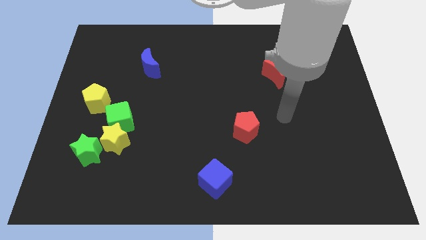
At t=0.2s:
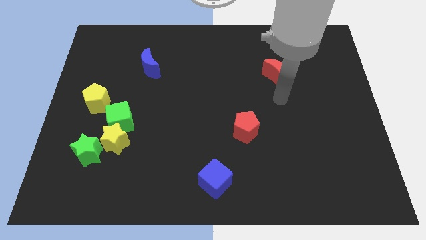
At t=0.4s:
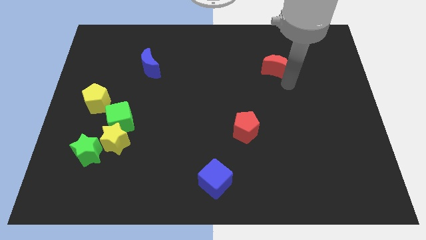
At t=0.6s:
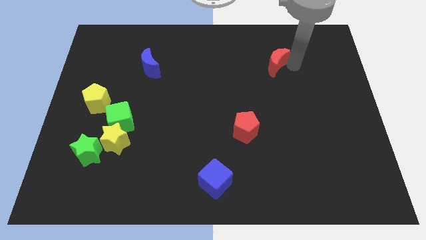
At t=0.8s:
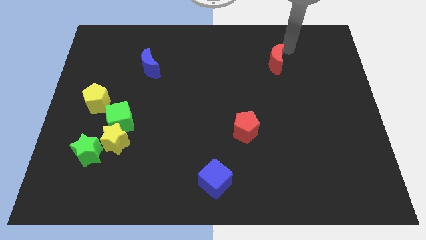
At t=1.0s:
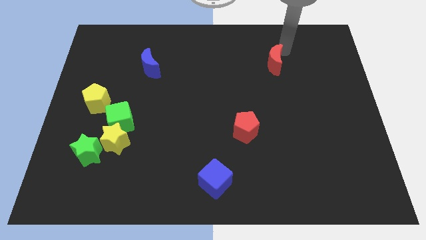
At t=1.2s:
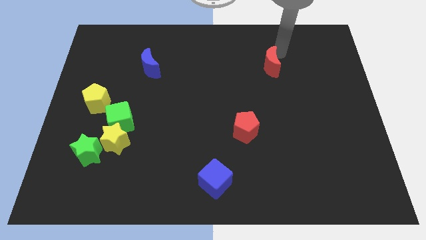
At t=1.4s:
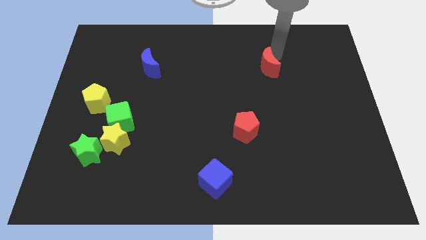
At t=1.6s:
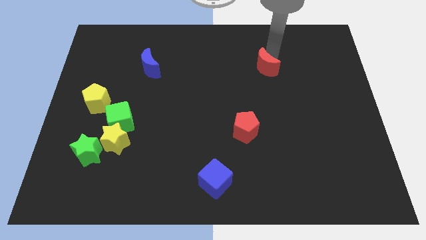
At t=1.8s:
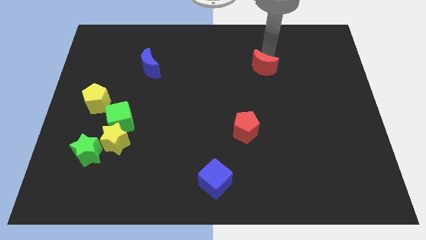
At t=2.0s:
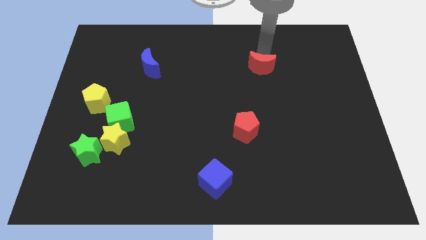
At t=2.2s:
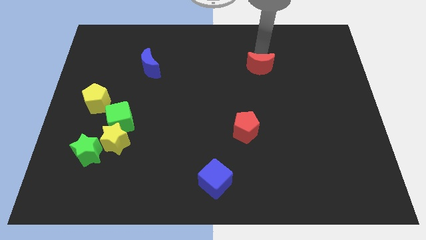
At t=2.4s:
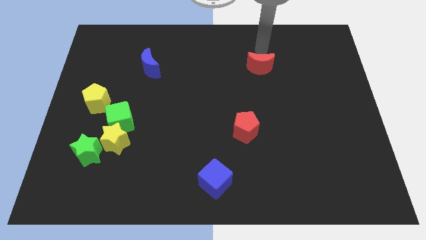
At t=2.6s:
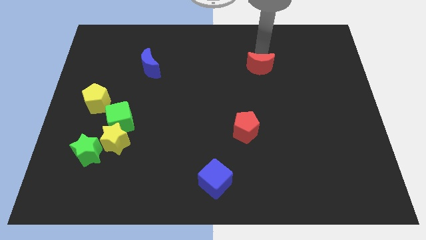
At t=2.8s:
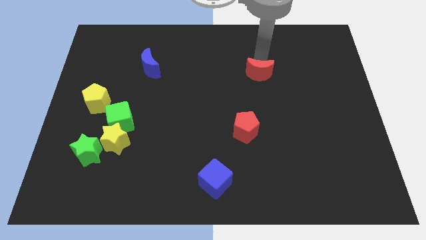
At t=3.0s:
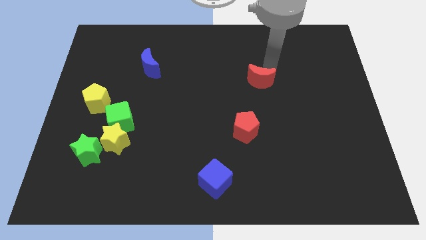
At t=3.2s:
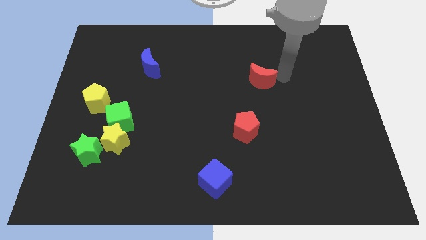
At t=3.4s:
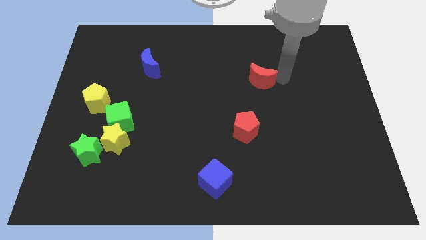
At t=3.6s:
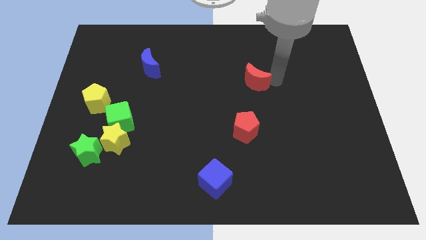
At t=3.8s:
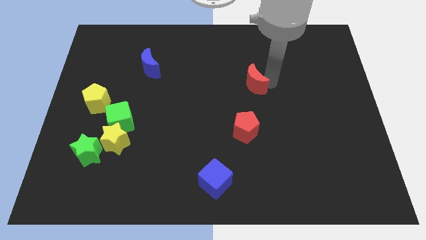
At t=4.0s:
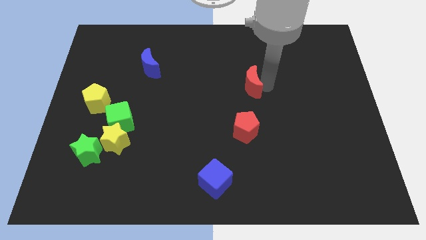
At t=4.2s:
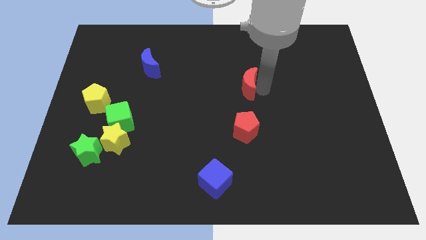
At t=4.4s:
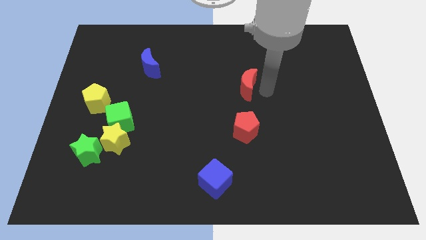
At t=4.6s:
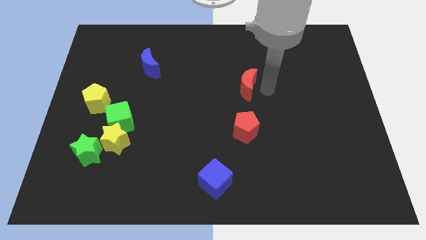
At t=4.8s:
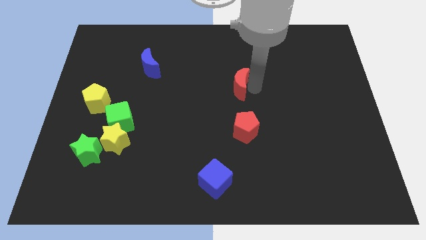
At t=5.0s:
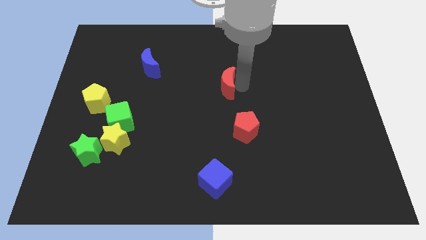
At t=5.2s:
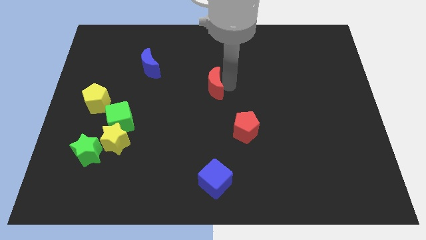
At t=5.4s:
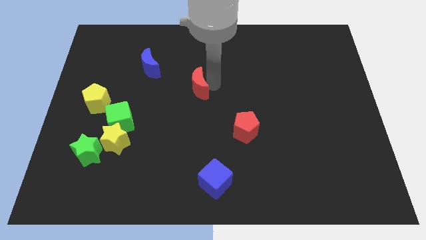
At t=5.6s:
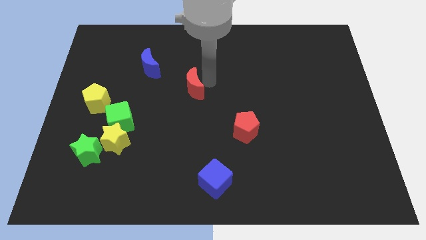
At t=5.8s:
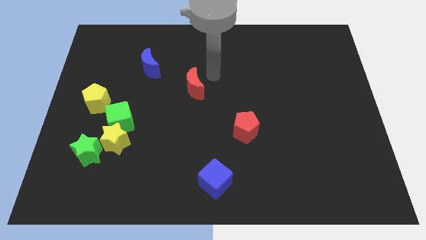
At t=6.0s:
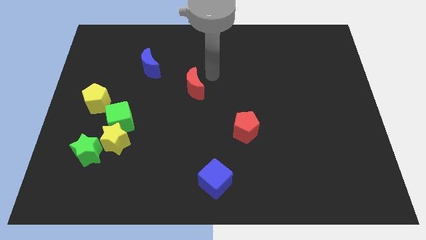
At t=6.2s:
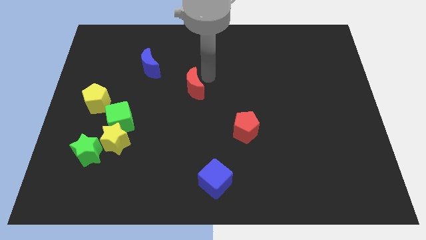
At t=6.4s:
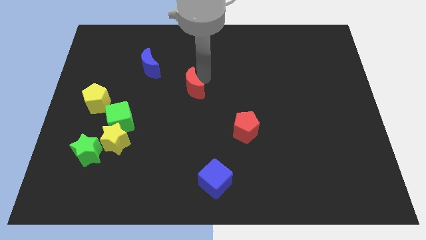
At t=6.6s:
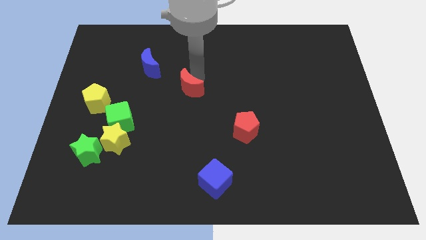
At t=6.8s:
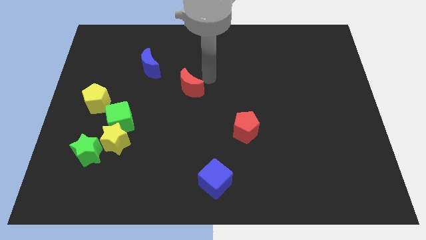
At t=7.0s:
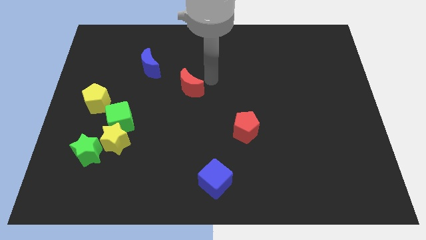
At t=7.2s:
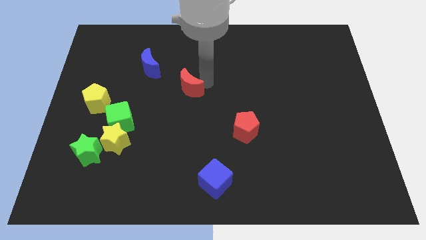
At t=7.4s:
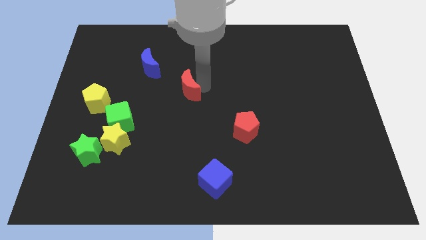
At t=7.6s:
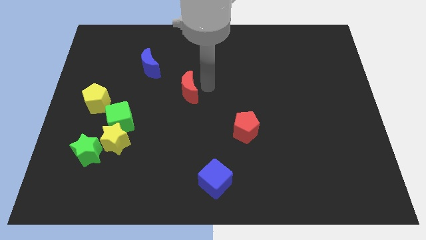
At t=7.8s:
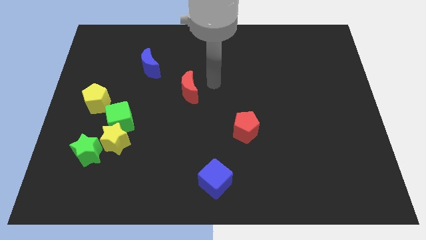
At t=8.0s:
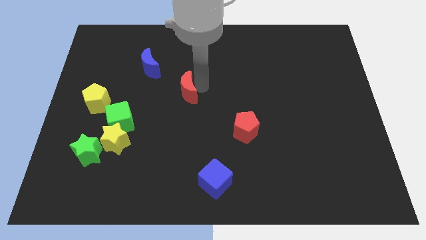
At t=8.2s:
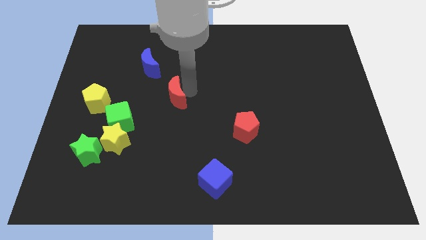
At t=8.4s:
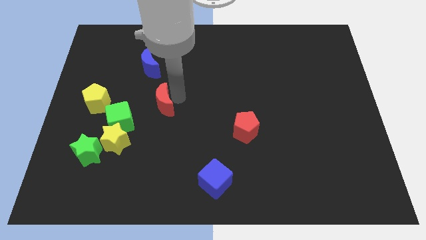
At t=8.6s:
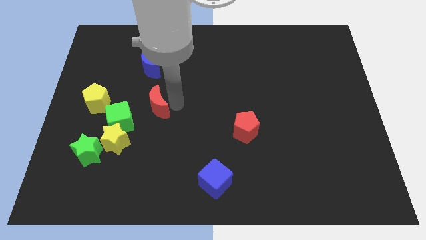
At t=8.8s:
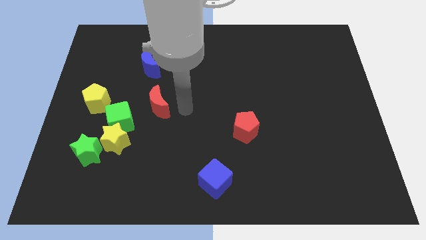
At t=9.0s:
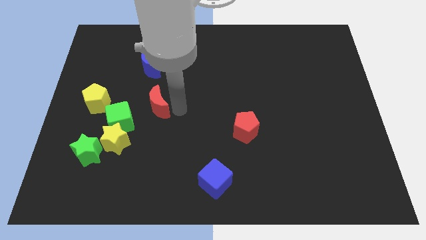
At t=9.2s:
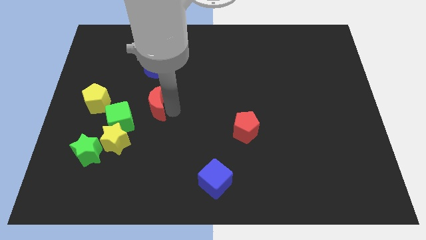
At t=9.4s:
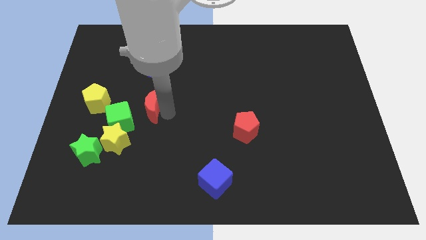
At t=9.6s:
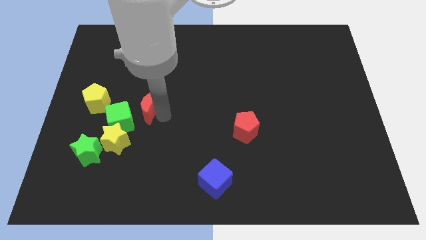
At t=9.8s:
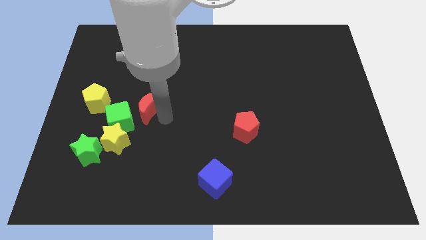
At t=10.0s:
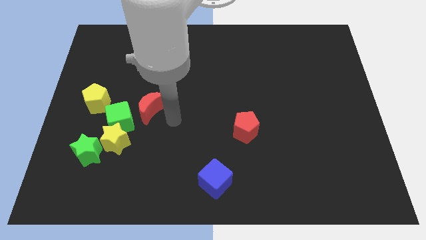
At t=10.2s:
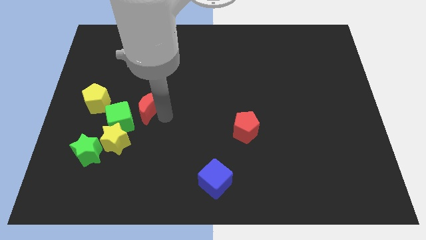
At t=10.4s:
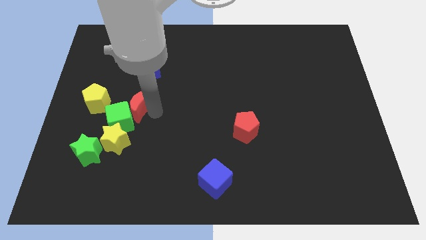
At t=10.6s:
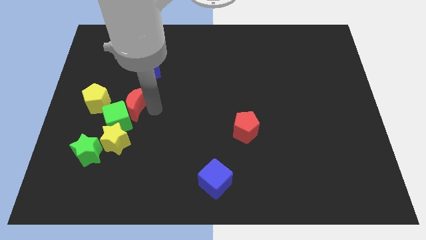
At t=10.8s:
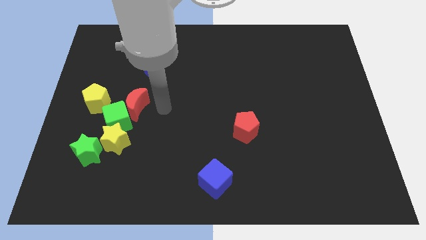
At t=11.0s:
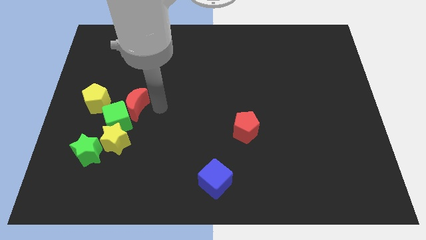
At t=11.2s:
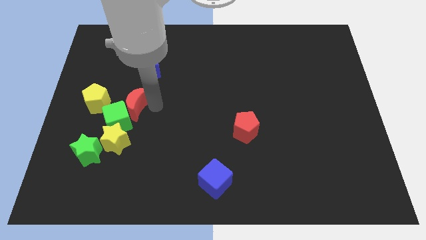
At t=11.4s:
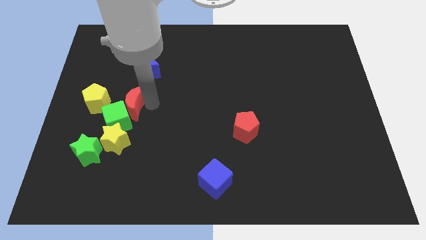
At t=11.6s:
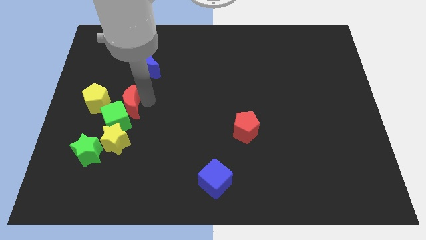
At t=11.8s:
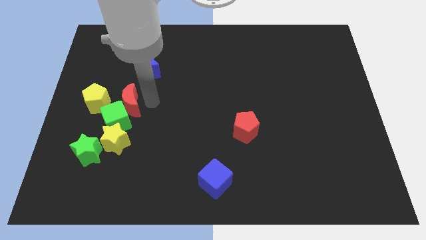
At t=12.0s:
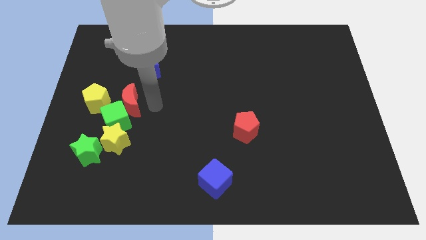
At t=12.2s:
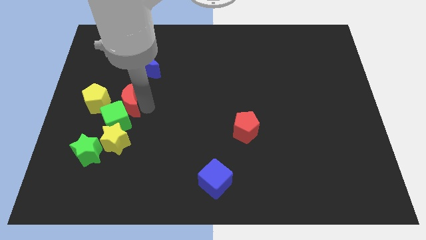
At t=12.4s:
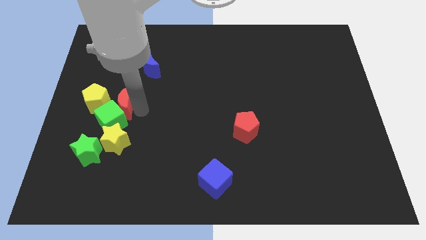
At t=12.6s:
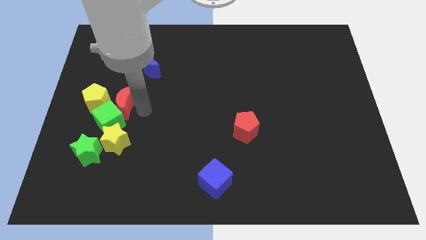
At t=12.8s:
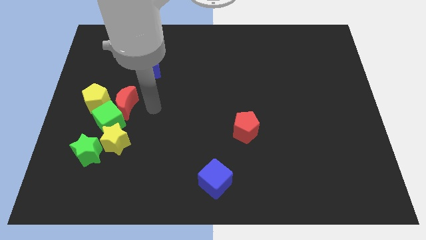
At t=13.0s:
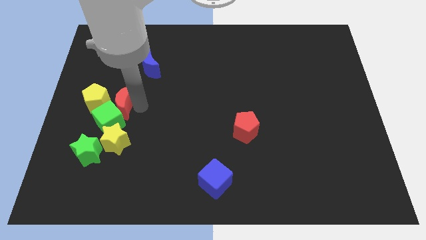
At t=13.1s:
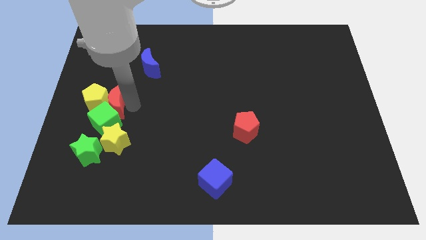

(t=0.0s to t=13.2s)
push the red moon to the yellow pentagon
